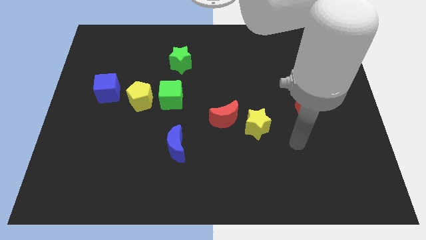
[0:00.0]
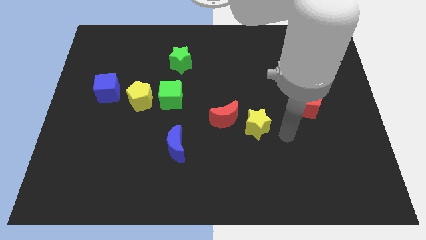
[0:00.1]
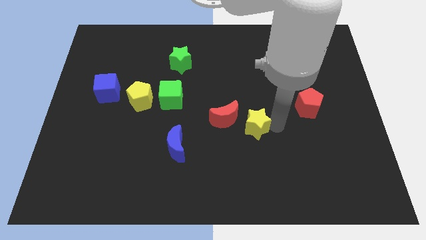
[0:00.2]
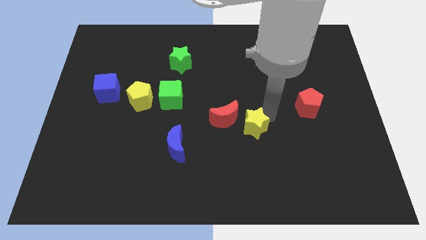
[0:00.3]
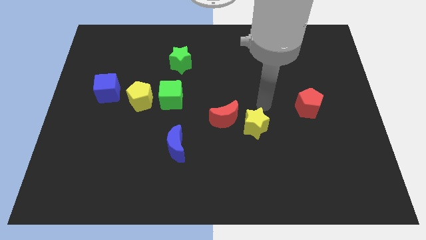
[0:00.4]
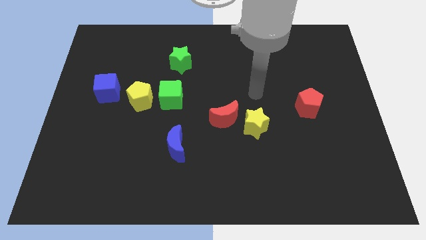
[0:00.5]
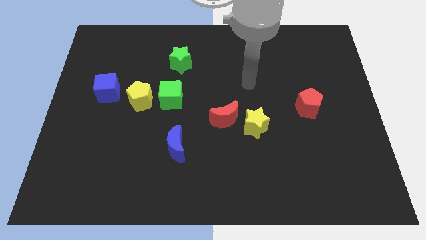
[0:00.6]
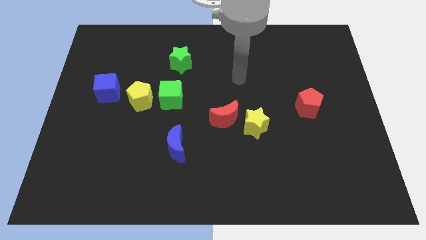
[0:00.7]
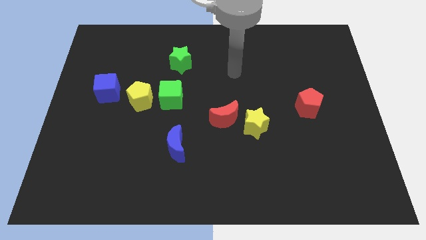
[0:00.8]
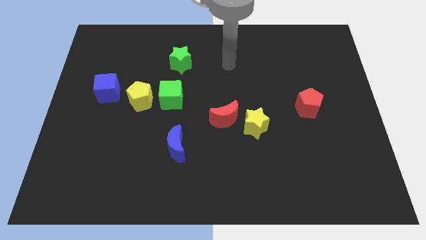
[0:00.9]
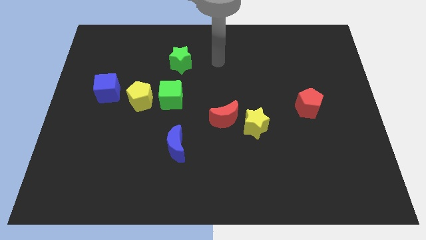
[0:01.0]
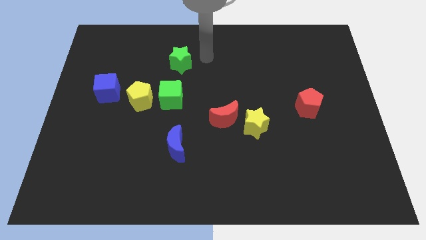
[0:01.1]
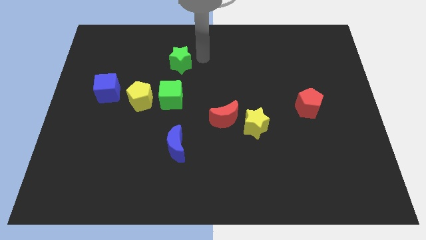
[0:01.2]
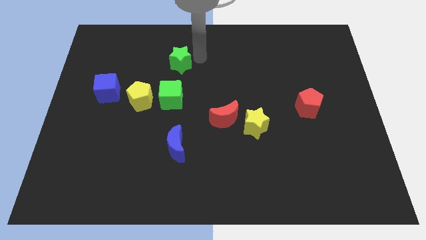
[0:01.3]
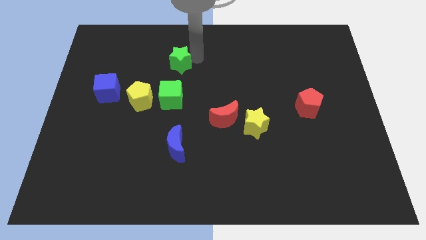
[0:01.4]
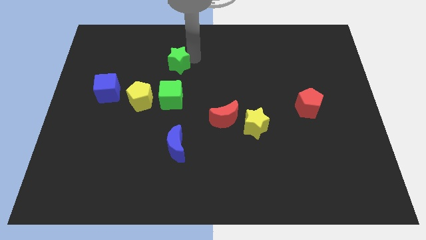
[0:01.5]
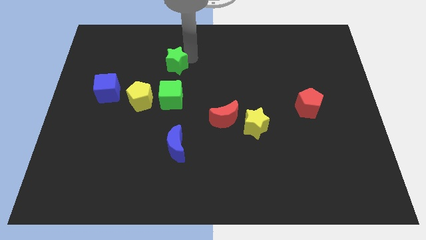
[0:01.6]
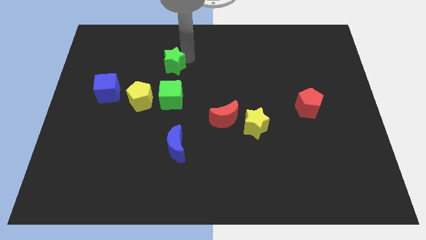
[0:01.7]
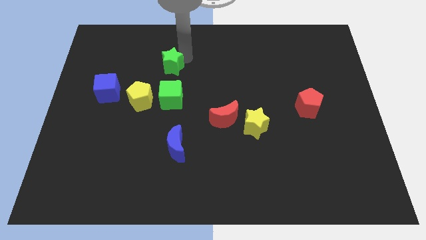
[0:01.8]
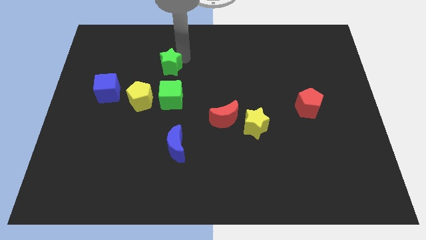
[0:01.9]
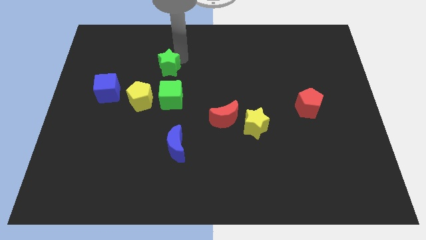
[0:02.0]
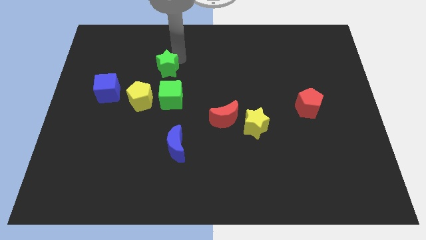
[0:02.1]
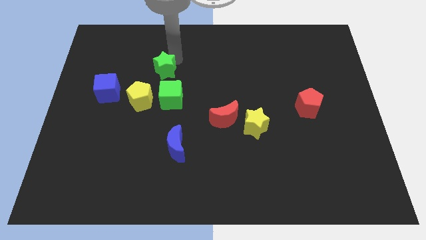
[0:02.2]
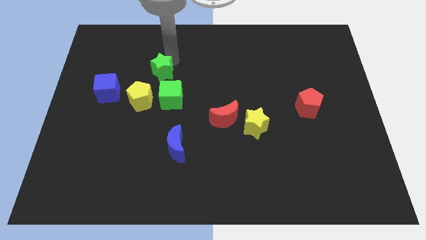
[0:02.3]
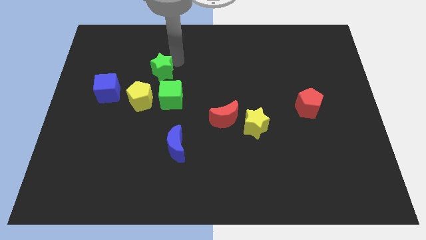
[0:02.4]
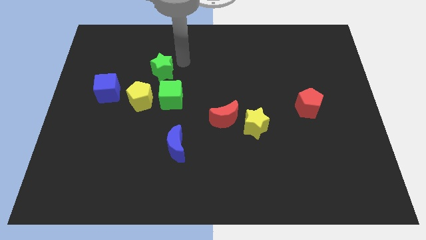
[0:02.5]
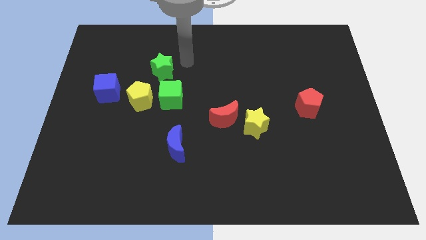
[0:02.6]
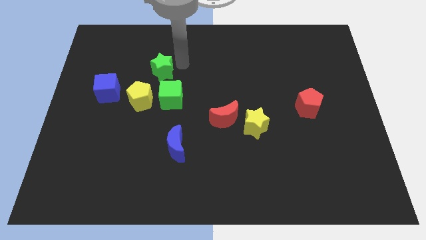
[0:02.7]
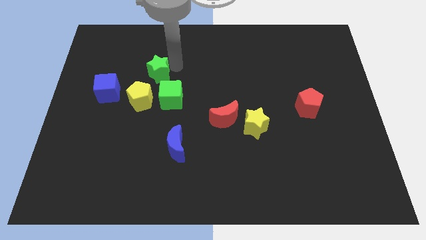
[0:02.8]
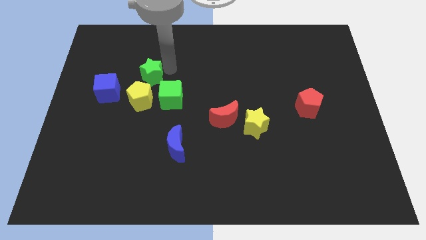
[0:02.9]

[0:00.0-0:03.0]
slightly move the green star down and left diagonally

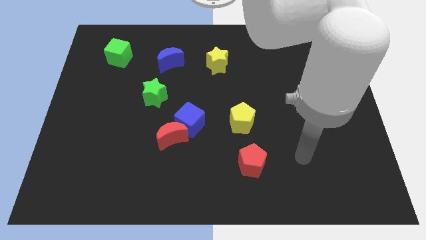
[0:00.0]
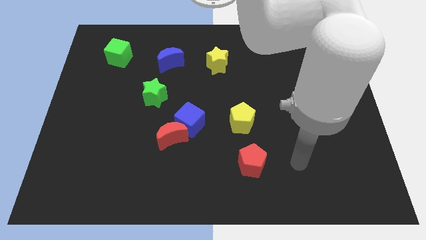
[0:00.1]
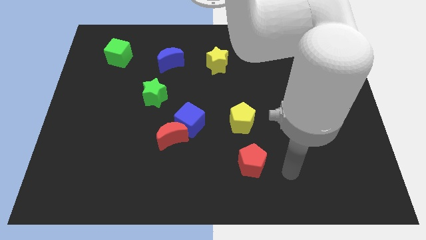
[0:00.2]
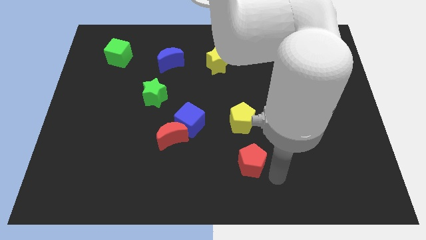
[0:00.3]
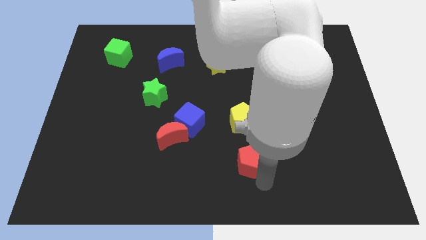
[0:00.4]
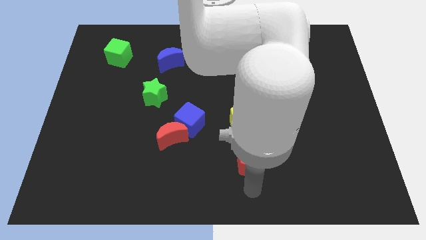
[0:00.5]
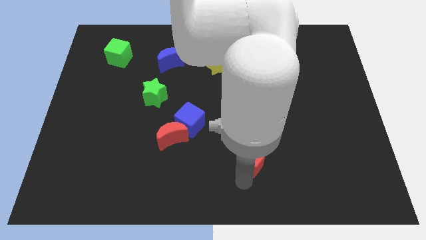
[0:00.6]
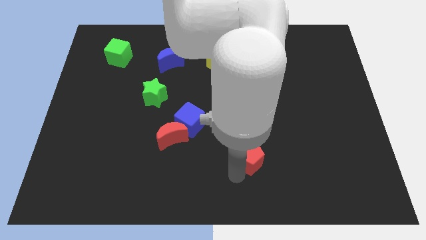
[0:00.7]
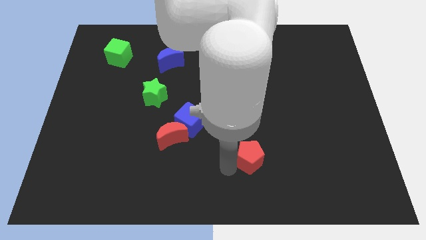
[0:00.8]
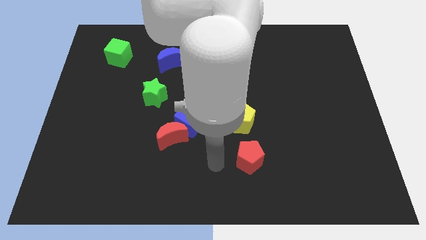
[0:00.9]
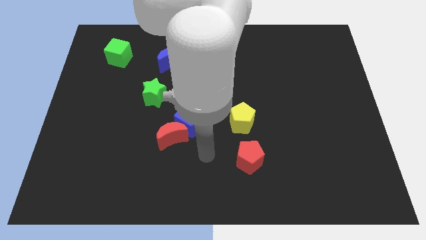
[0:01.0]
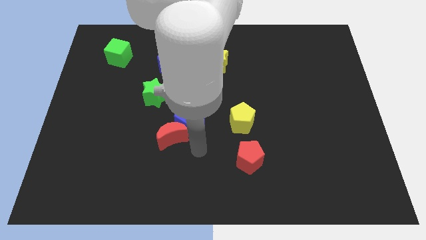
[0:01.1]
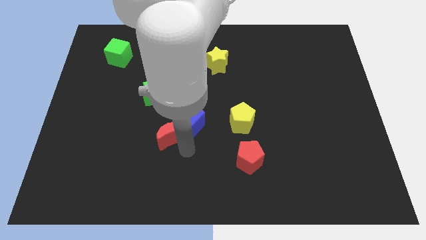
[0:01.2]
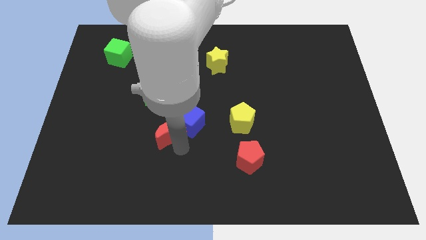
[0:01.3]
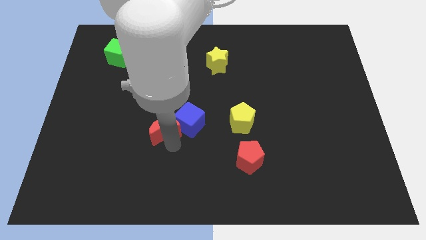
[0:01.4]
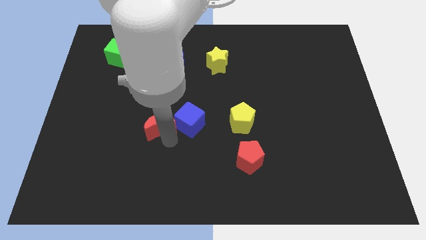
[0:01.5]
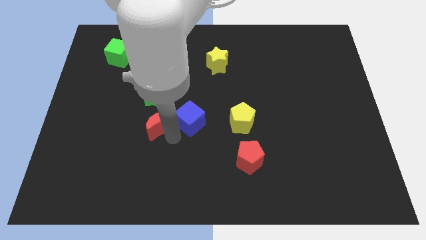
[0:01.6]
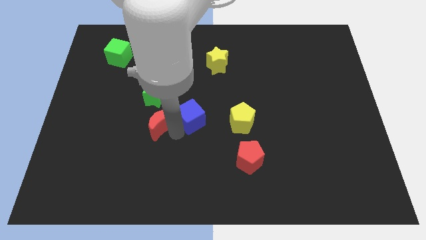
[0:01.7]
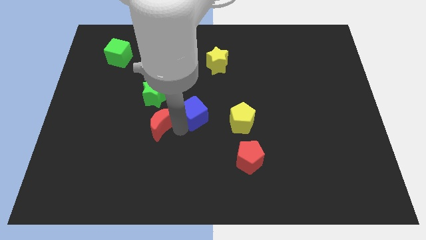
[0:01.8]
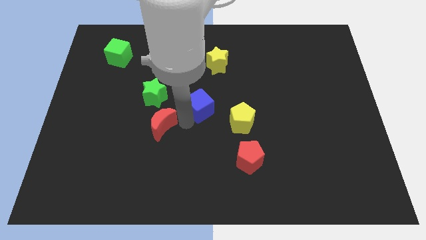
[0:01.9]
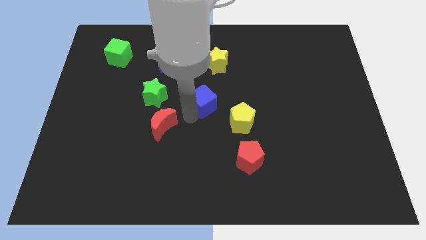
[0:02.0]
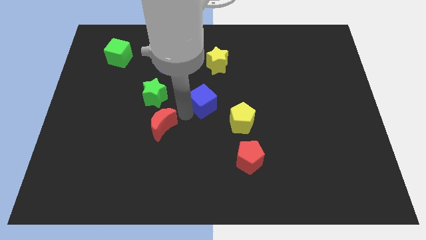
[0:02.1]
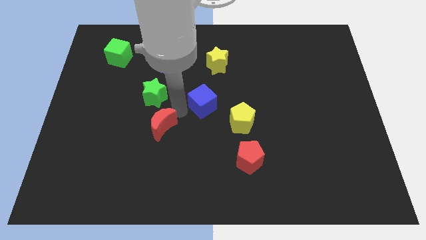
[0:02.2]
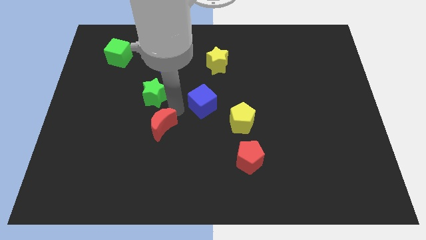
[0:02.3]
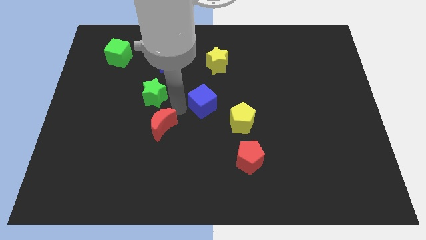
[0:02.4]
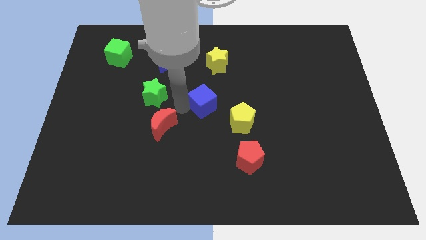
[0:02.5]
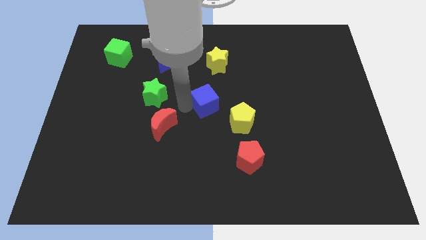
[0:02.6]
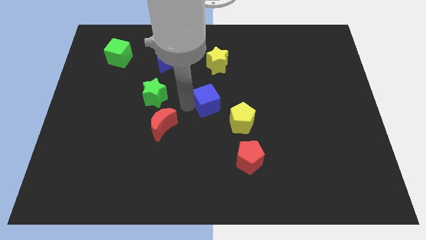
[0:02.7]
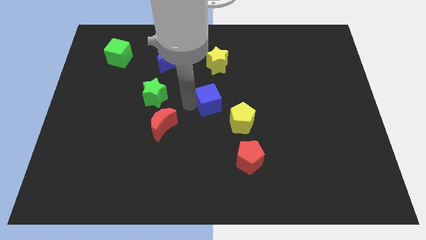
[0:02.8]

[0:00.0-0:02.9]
slightly move the blue cube upwards and right diagonally

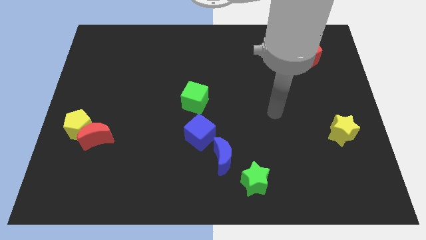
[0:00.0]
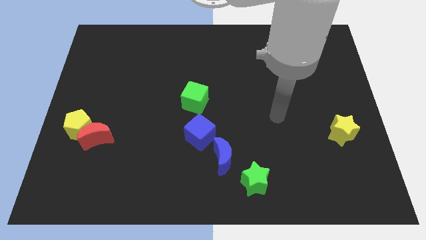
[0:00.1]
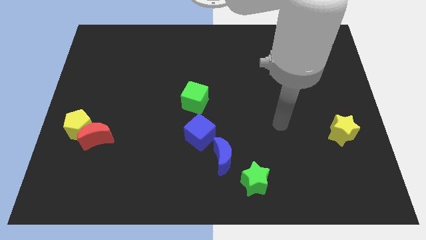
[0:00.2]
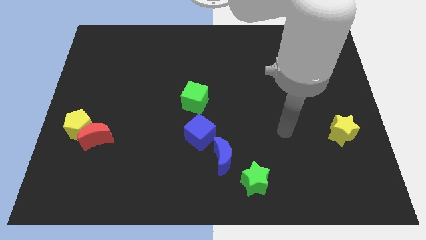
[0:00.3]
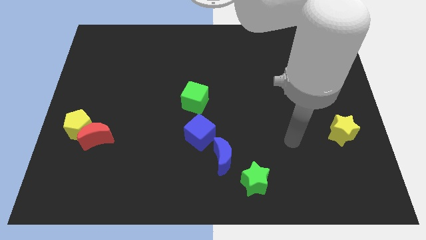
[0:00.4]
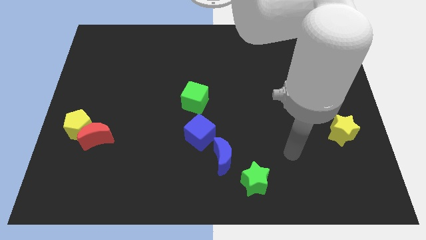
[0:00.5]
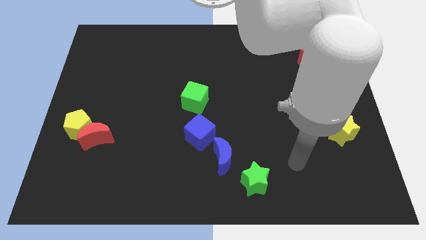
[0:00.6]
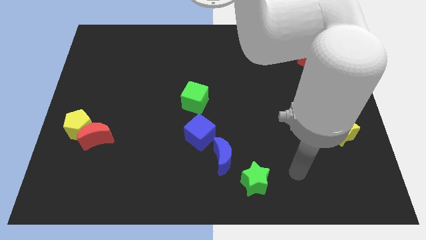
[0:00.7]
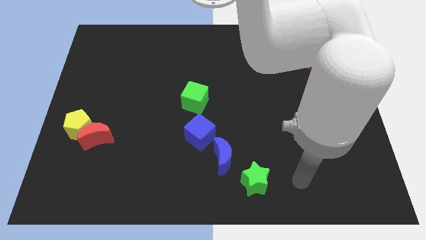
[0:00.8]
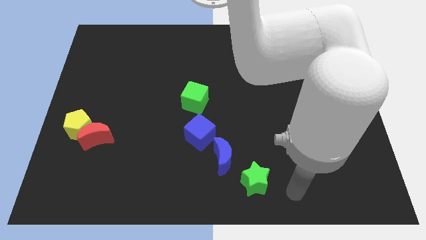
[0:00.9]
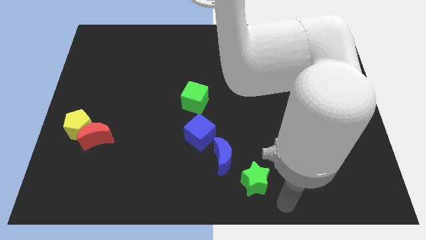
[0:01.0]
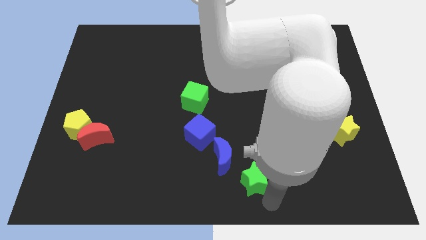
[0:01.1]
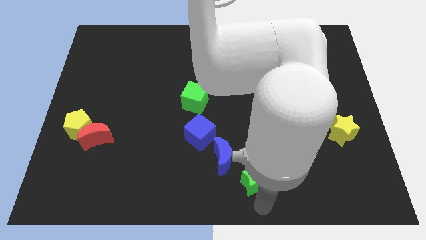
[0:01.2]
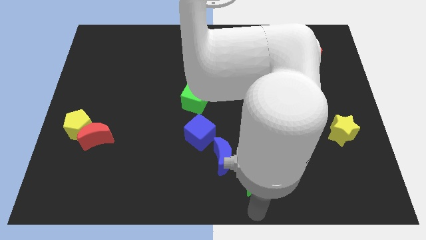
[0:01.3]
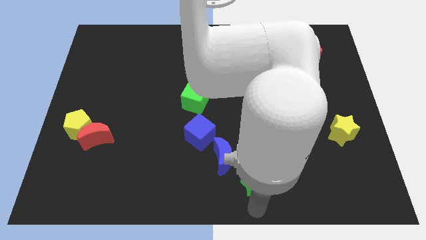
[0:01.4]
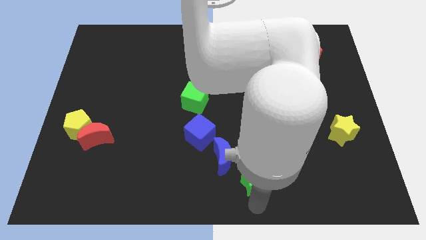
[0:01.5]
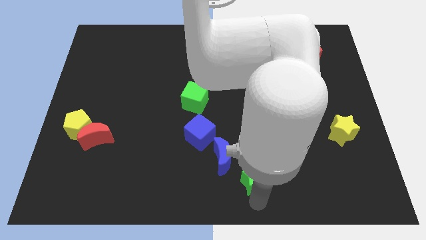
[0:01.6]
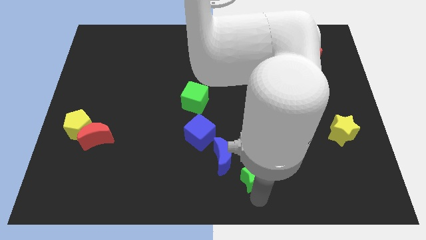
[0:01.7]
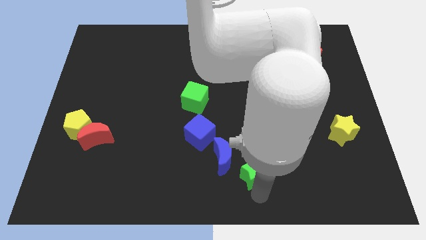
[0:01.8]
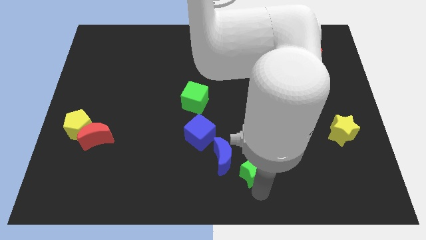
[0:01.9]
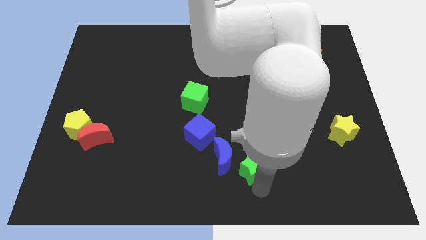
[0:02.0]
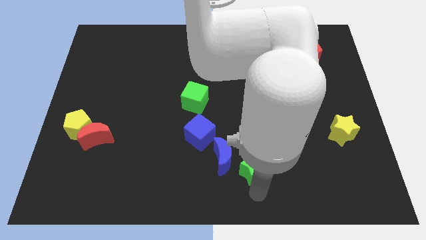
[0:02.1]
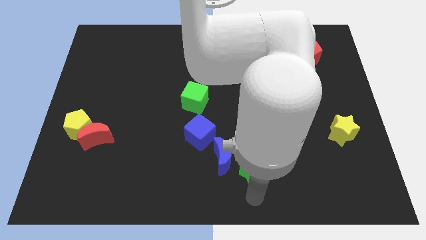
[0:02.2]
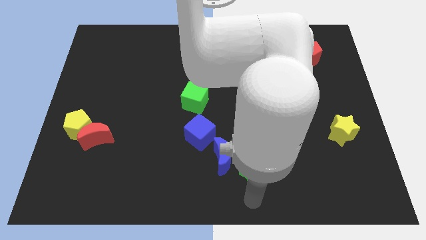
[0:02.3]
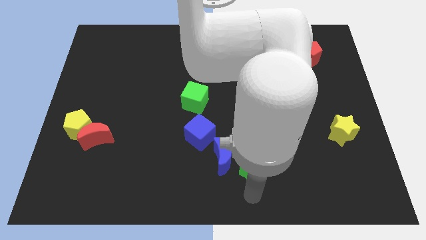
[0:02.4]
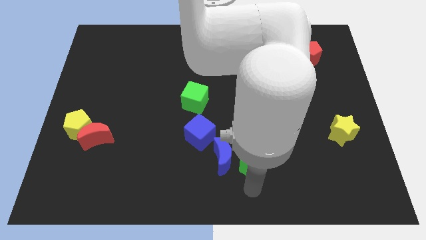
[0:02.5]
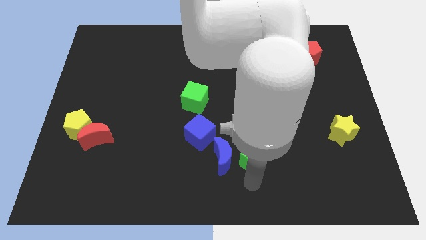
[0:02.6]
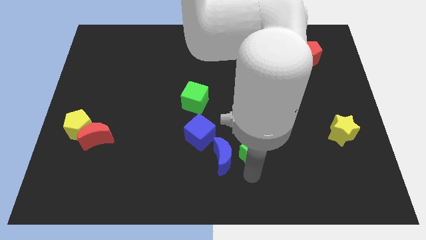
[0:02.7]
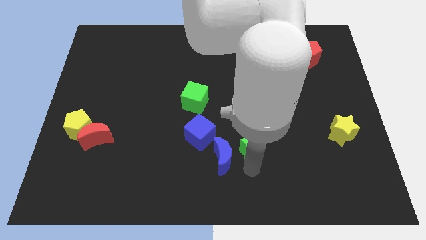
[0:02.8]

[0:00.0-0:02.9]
slide the green star somewhat up
